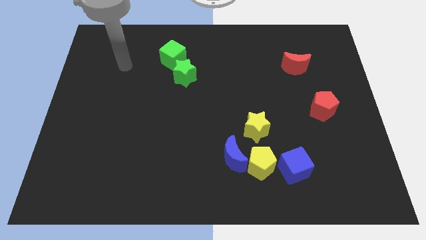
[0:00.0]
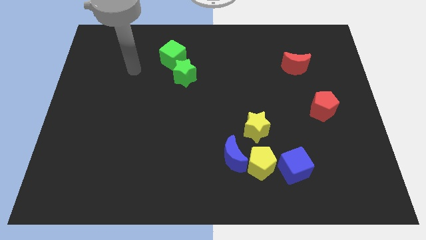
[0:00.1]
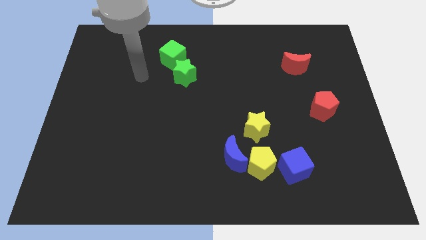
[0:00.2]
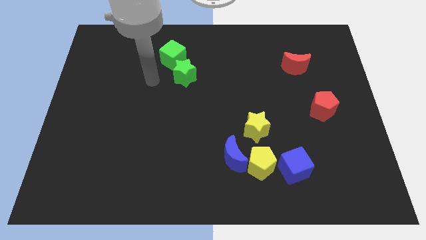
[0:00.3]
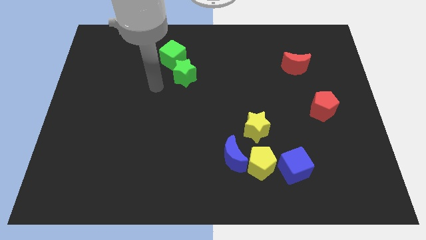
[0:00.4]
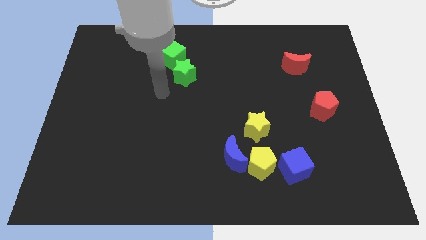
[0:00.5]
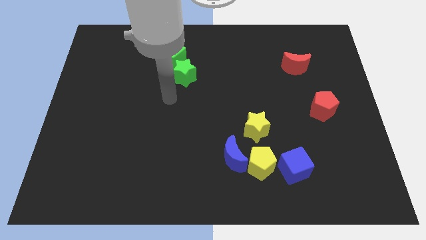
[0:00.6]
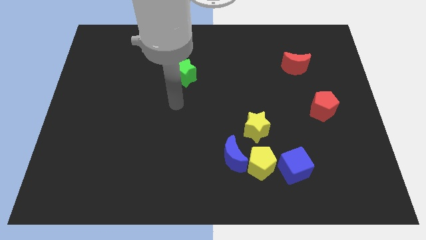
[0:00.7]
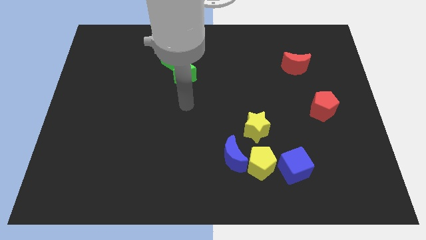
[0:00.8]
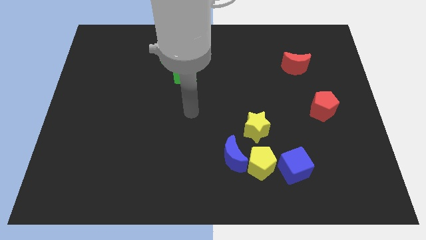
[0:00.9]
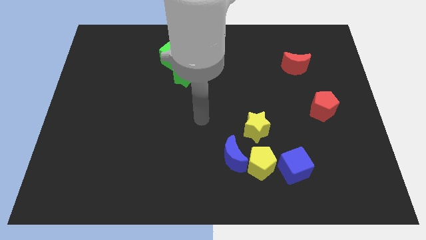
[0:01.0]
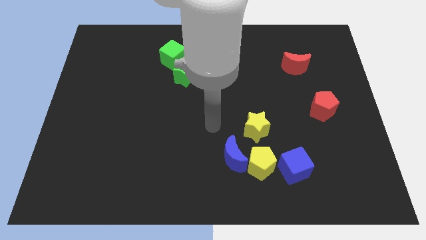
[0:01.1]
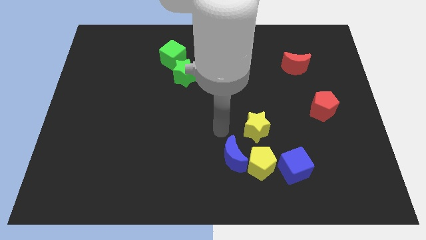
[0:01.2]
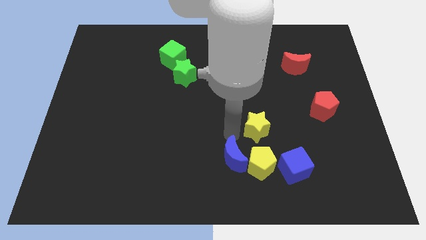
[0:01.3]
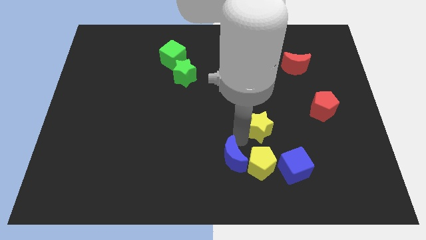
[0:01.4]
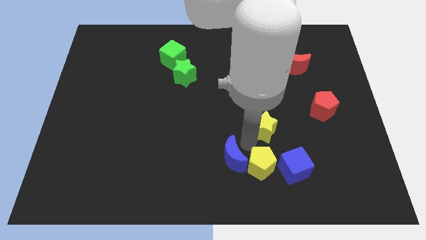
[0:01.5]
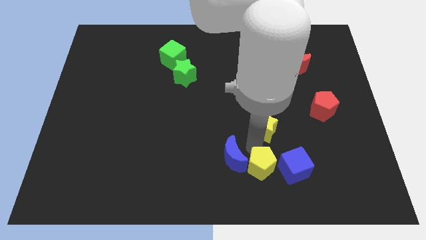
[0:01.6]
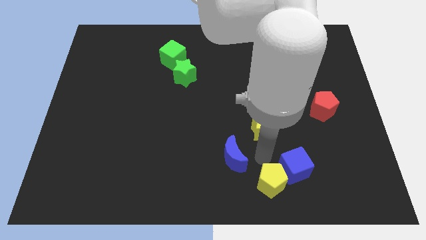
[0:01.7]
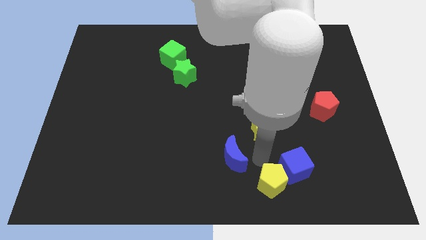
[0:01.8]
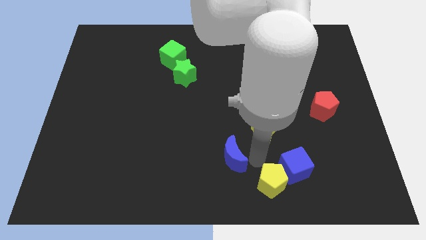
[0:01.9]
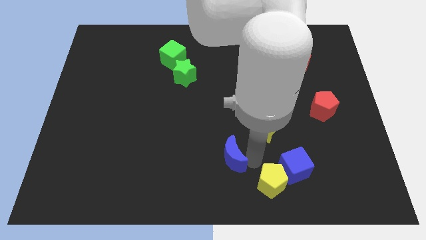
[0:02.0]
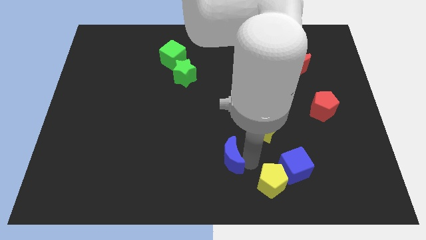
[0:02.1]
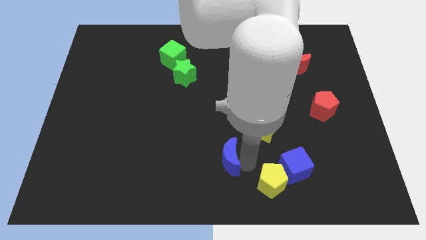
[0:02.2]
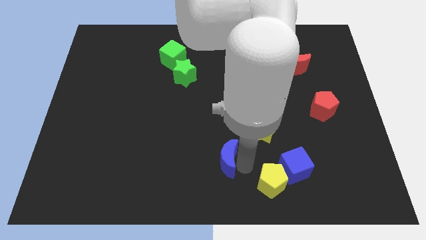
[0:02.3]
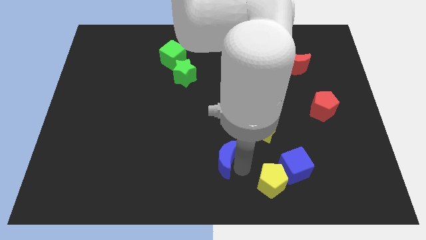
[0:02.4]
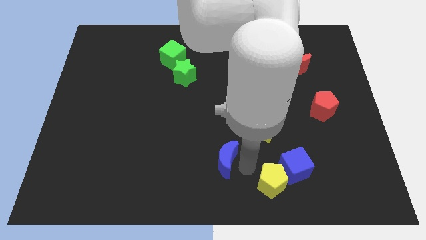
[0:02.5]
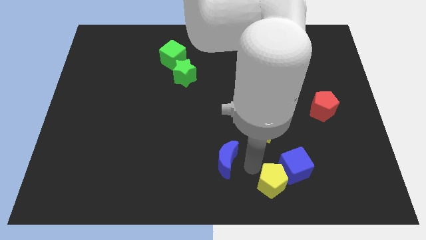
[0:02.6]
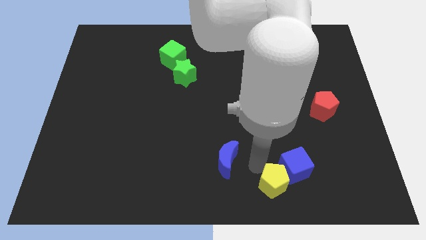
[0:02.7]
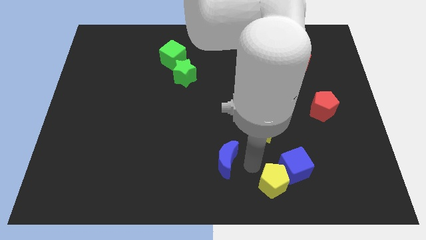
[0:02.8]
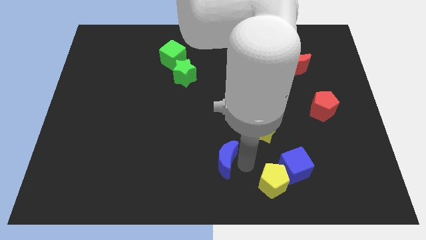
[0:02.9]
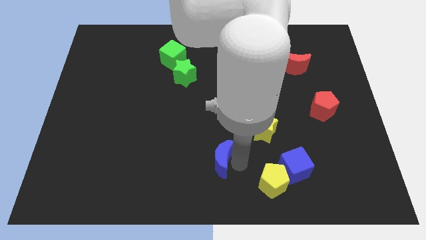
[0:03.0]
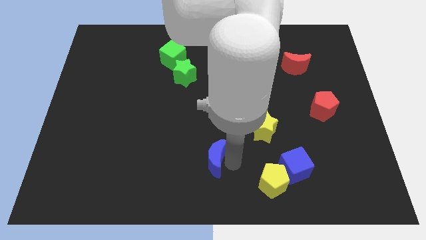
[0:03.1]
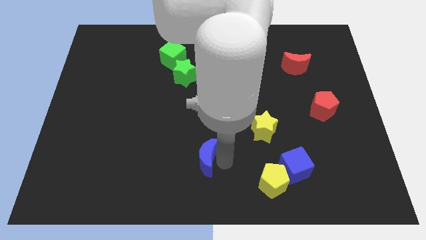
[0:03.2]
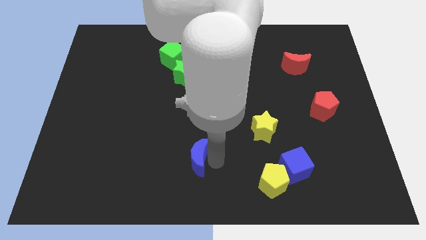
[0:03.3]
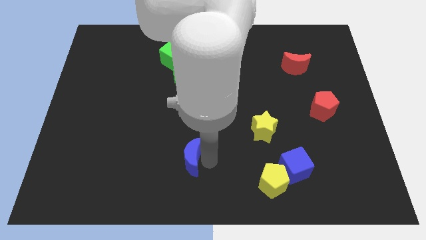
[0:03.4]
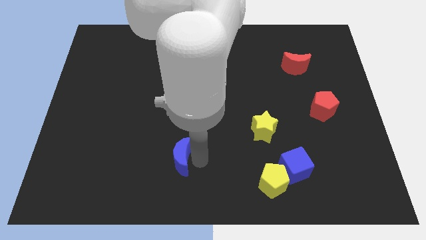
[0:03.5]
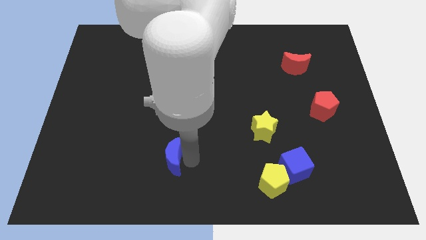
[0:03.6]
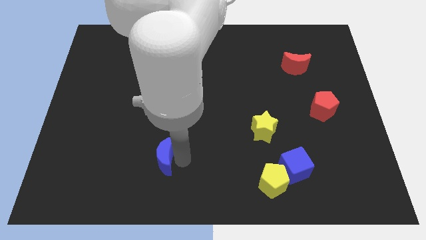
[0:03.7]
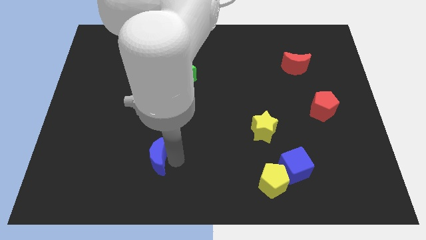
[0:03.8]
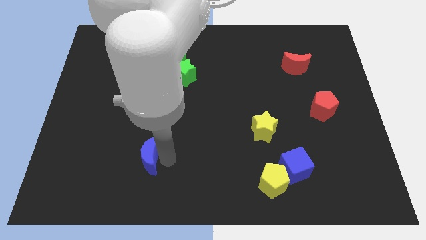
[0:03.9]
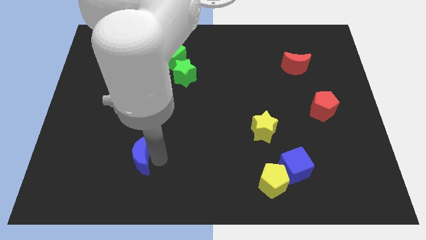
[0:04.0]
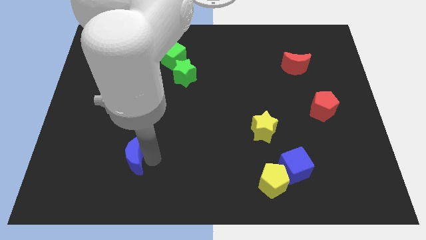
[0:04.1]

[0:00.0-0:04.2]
move the blue moon left

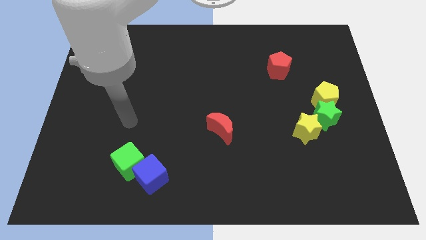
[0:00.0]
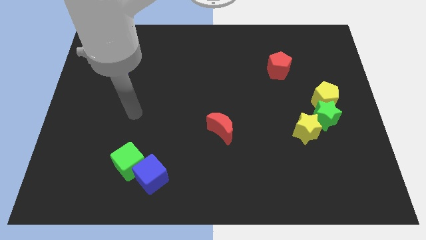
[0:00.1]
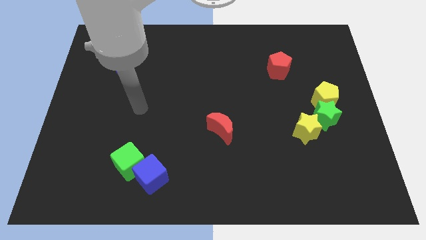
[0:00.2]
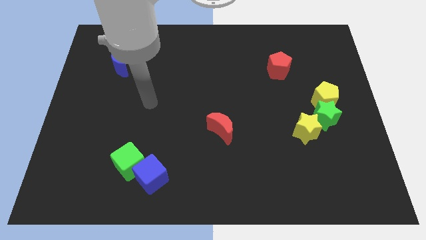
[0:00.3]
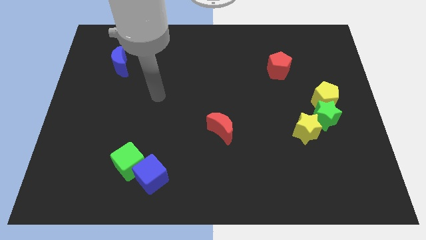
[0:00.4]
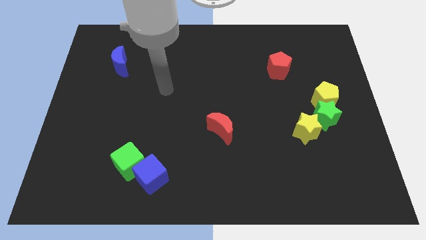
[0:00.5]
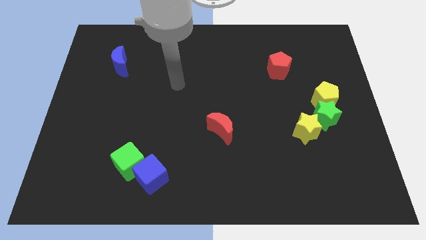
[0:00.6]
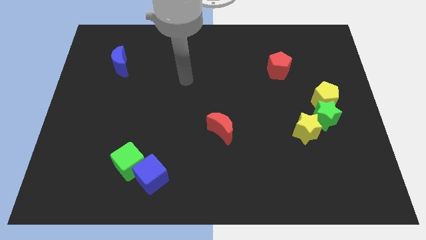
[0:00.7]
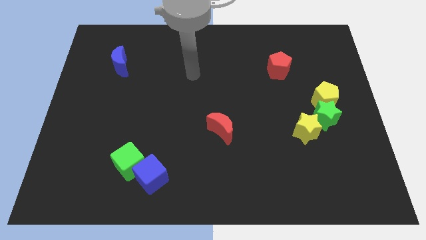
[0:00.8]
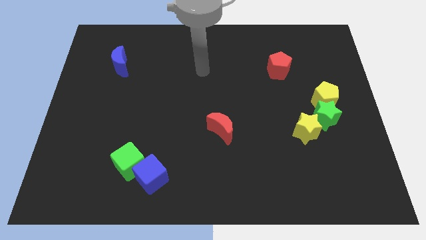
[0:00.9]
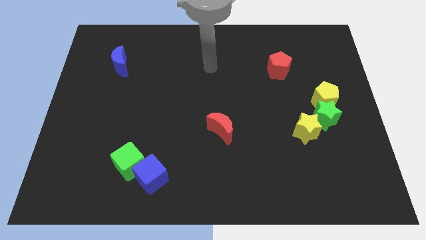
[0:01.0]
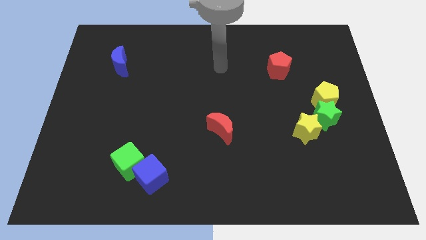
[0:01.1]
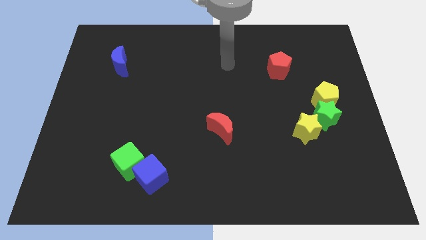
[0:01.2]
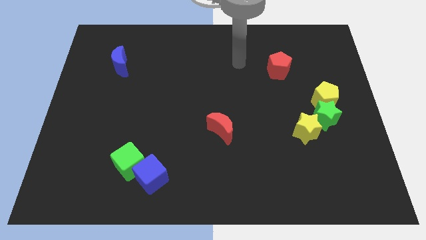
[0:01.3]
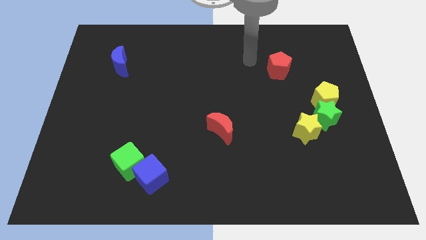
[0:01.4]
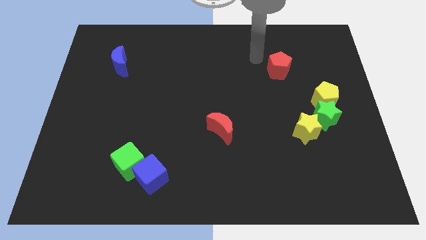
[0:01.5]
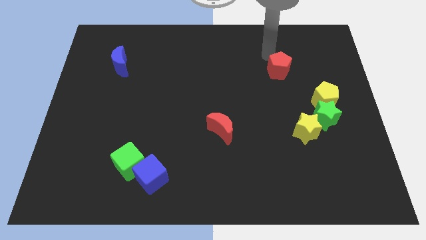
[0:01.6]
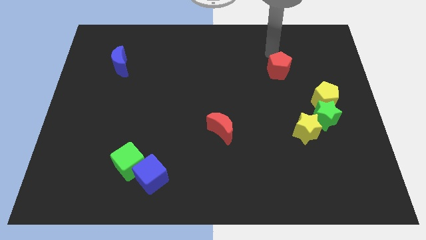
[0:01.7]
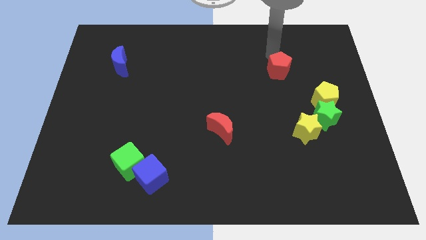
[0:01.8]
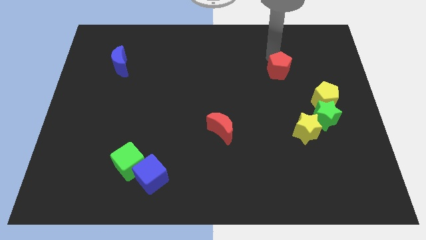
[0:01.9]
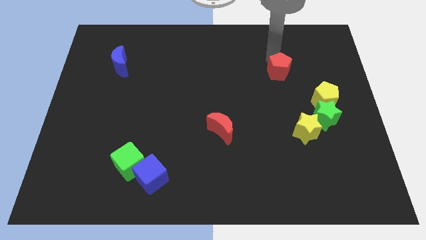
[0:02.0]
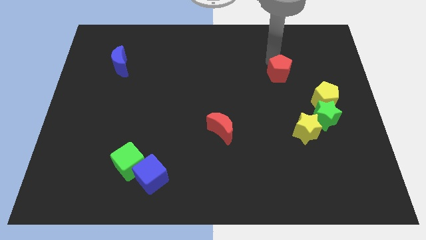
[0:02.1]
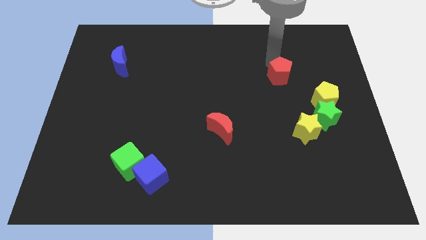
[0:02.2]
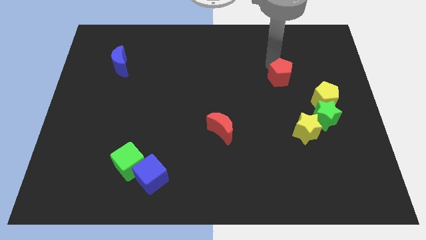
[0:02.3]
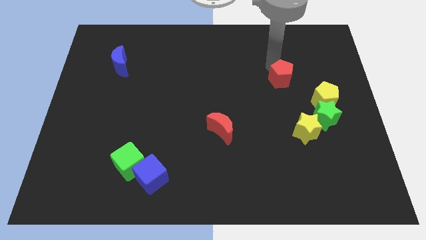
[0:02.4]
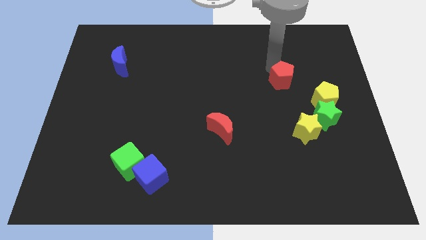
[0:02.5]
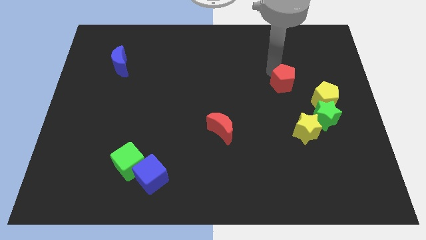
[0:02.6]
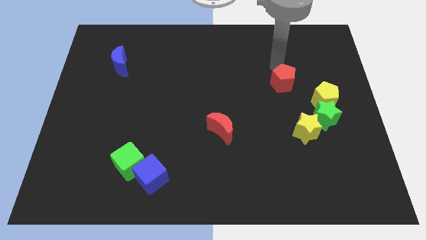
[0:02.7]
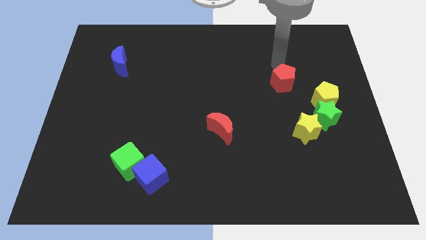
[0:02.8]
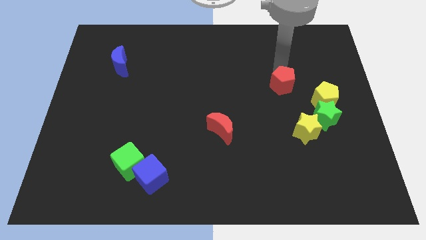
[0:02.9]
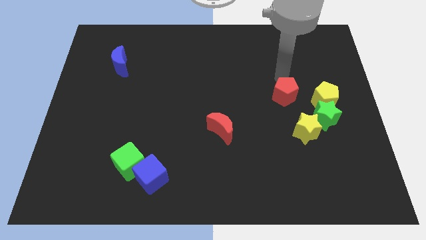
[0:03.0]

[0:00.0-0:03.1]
slightly push the red pentagon downwards

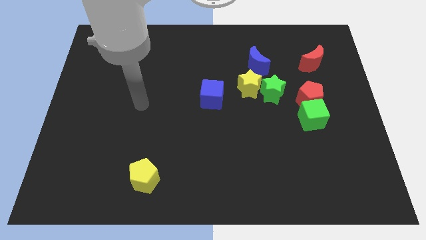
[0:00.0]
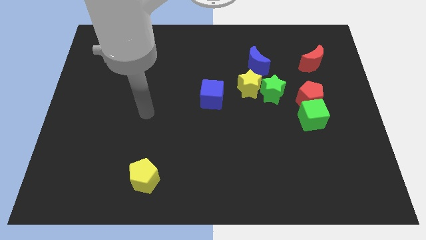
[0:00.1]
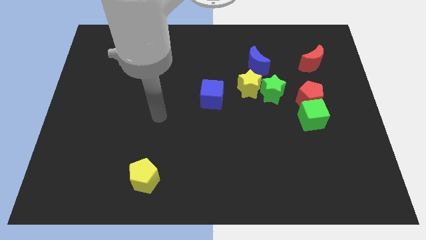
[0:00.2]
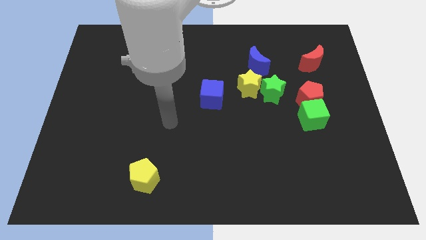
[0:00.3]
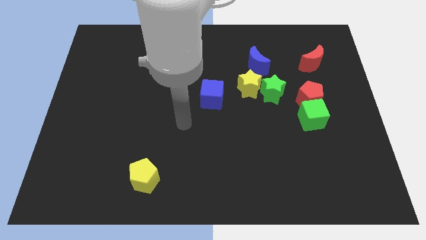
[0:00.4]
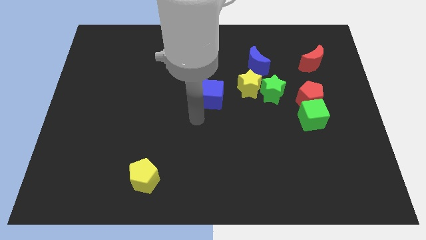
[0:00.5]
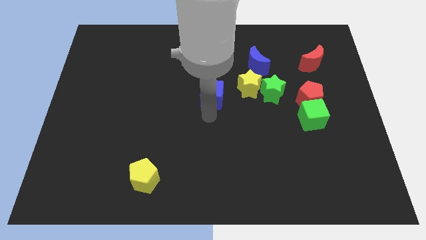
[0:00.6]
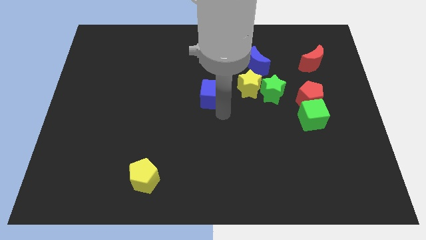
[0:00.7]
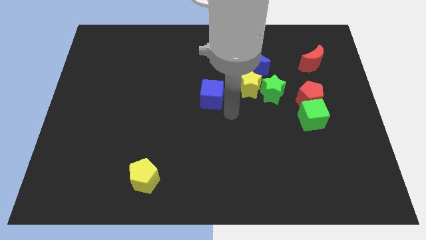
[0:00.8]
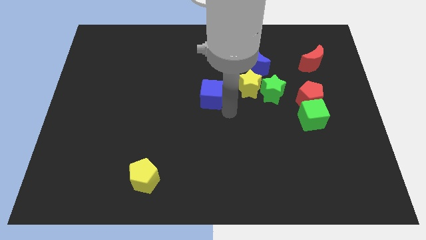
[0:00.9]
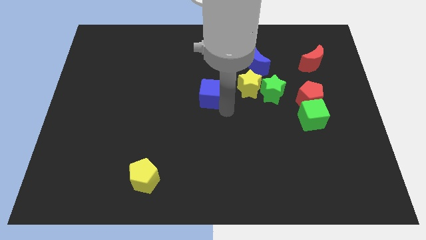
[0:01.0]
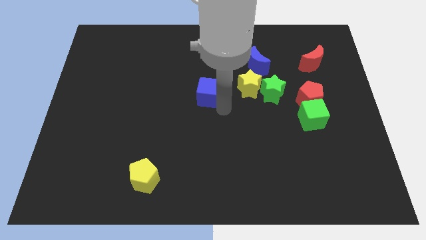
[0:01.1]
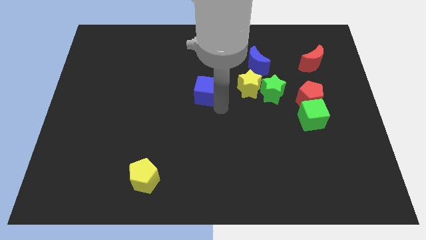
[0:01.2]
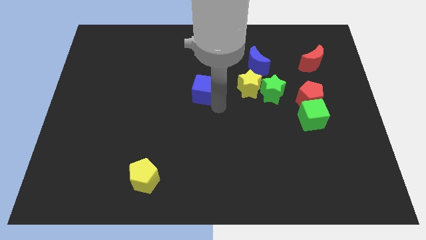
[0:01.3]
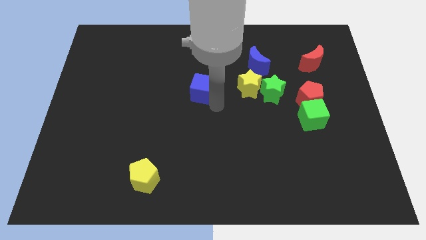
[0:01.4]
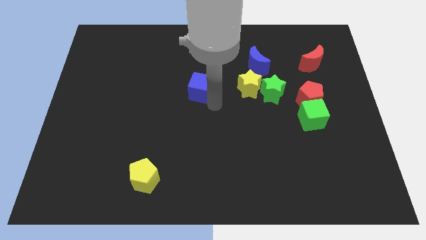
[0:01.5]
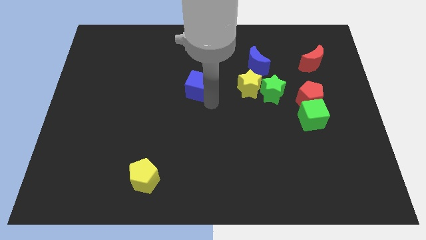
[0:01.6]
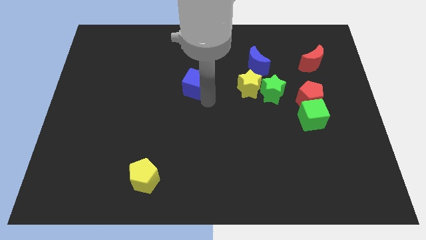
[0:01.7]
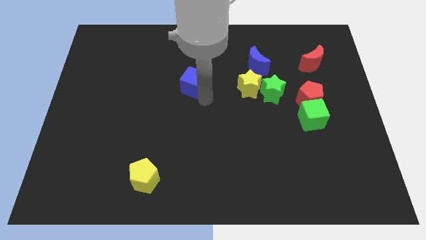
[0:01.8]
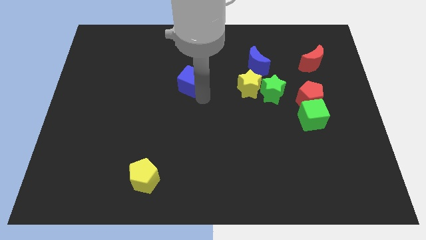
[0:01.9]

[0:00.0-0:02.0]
slightly push the blue cube upwards and then left
